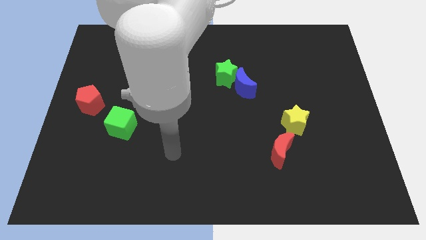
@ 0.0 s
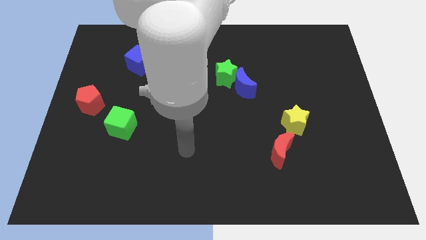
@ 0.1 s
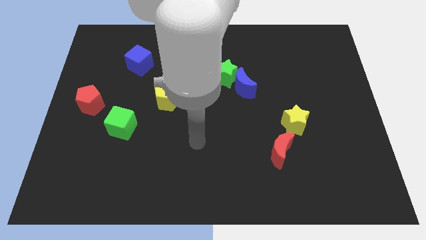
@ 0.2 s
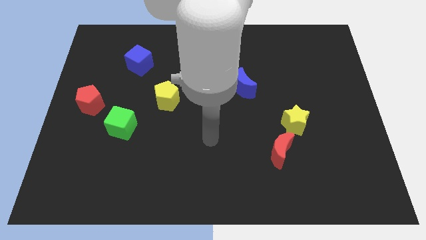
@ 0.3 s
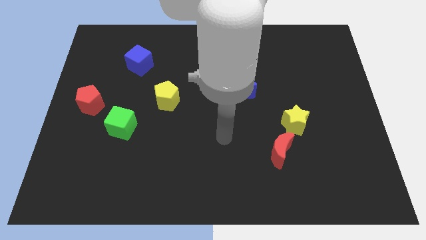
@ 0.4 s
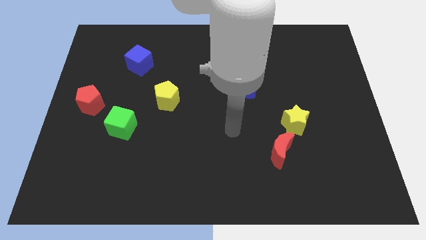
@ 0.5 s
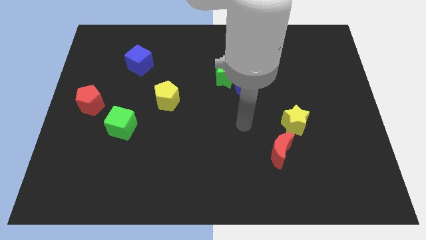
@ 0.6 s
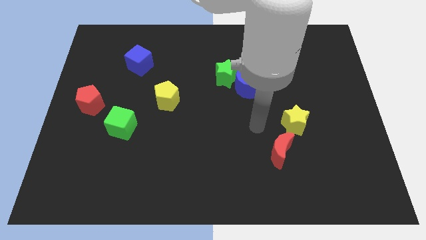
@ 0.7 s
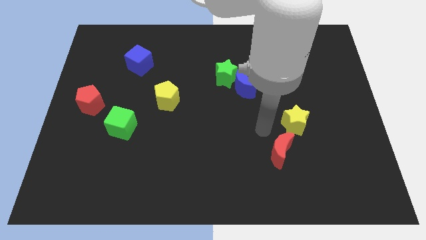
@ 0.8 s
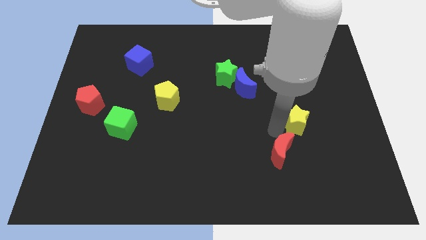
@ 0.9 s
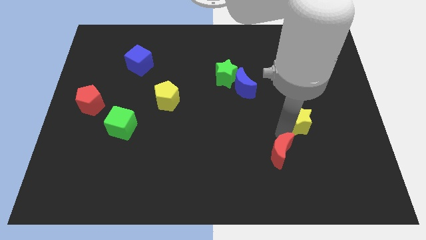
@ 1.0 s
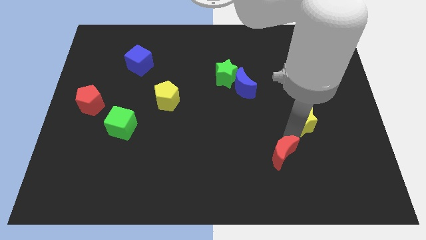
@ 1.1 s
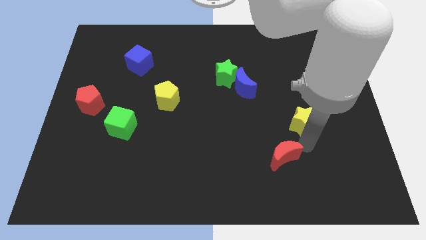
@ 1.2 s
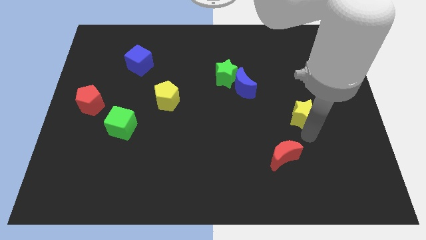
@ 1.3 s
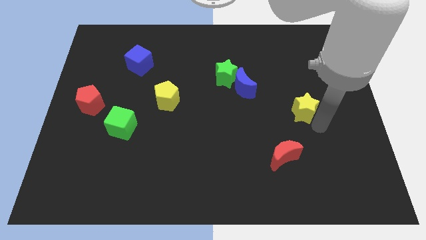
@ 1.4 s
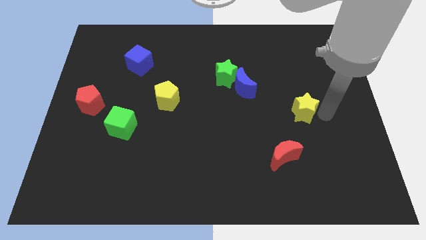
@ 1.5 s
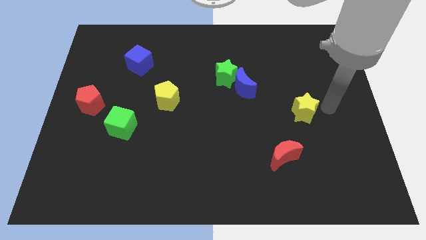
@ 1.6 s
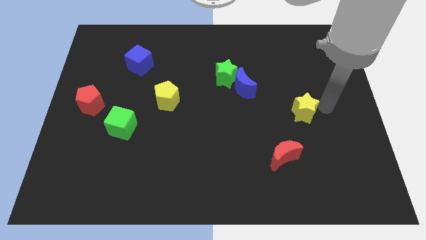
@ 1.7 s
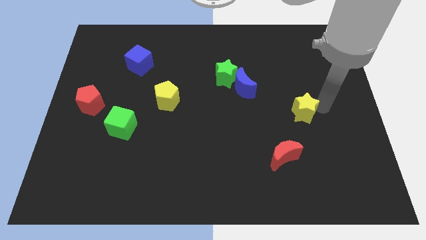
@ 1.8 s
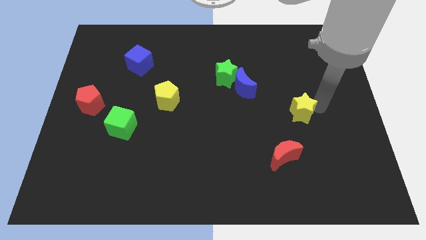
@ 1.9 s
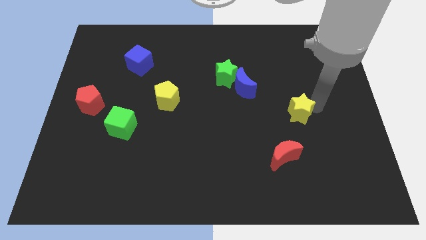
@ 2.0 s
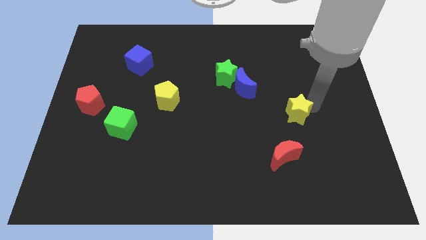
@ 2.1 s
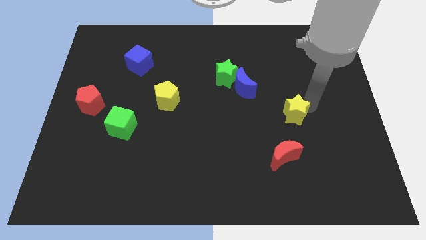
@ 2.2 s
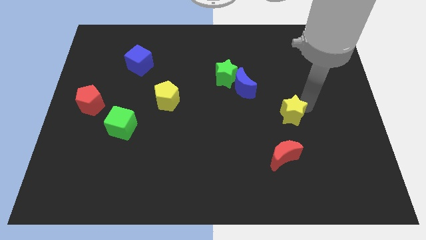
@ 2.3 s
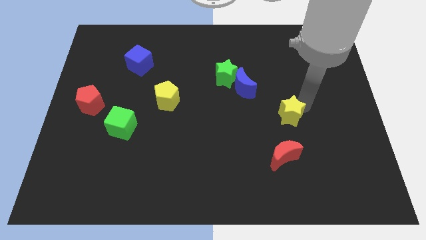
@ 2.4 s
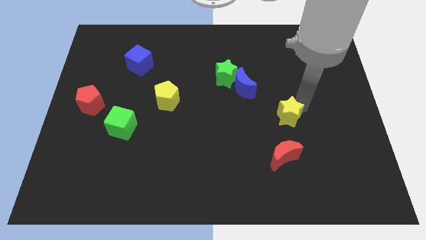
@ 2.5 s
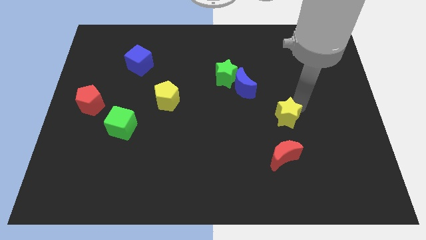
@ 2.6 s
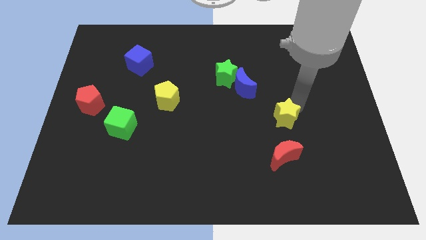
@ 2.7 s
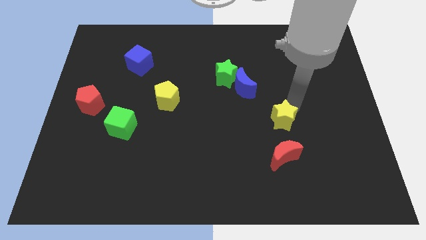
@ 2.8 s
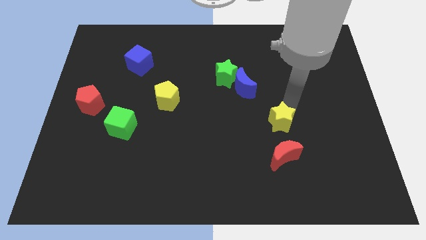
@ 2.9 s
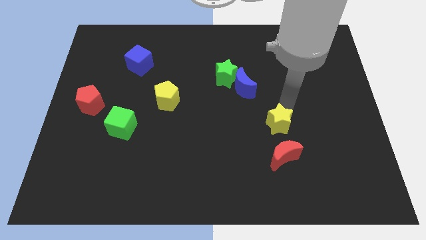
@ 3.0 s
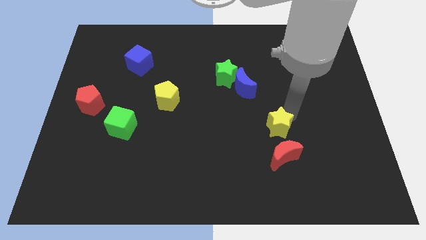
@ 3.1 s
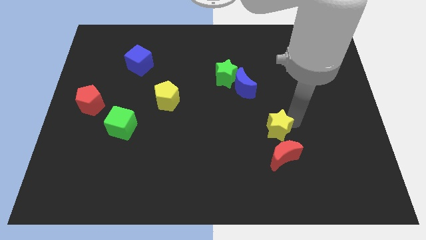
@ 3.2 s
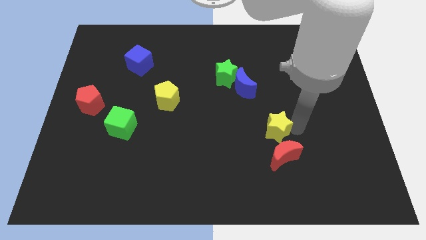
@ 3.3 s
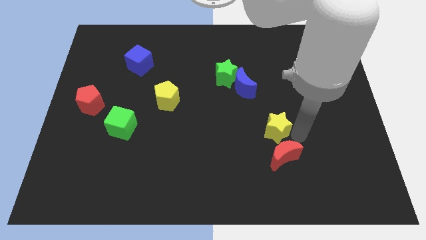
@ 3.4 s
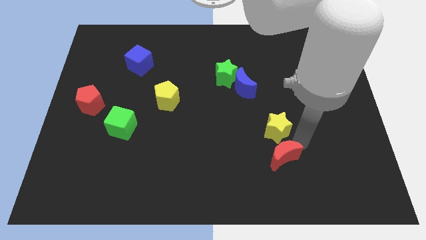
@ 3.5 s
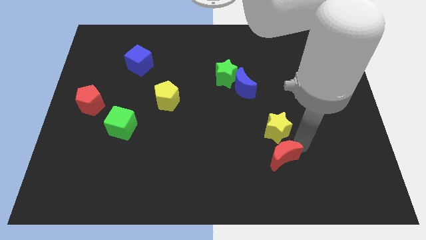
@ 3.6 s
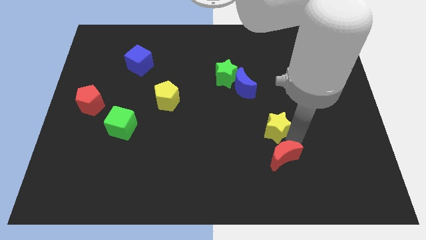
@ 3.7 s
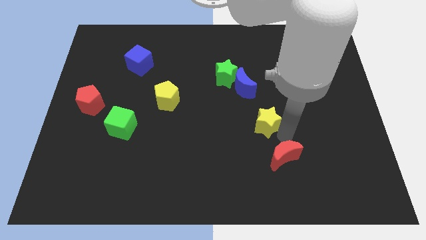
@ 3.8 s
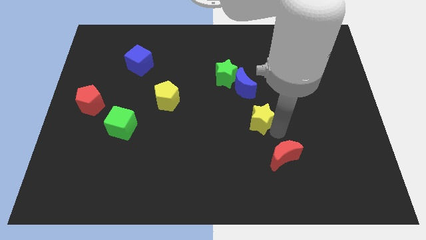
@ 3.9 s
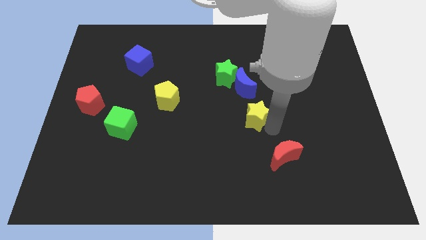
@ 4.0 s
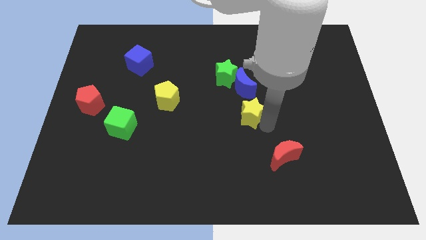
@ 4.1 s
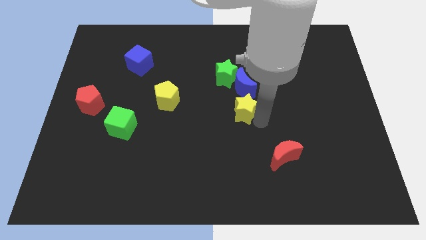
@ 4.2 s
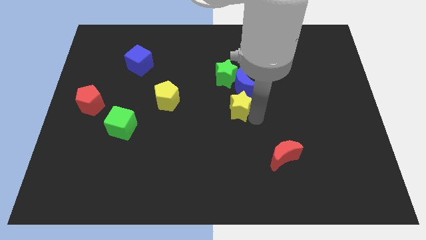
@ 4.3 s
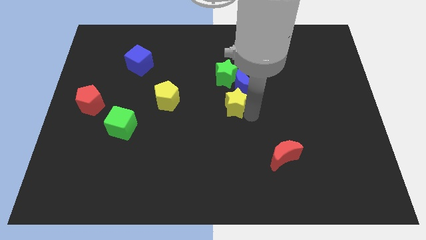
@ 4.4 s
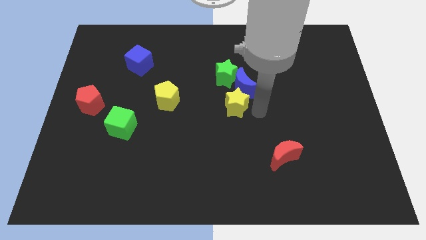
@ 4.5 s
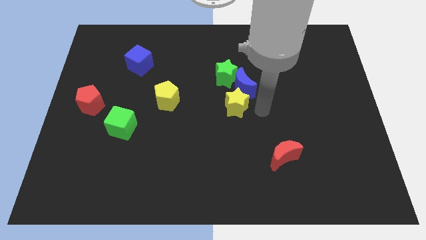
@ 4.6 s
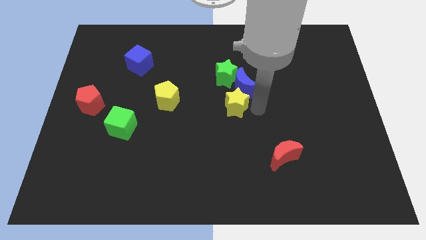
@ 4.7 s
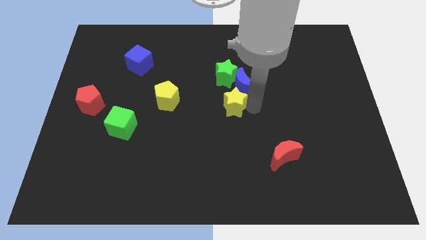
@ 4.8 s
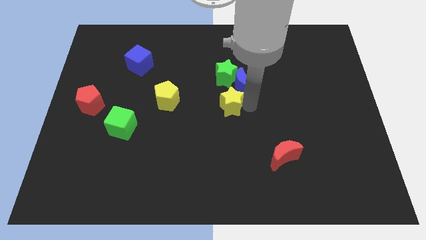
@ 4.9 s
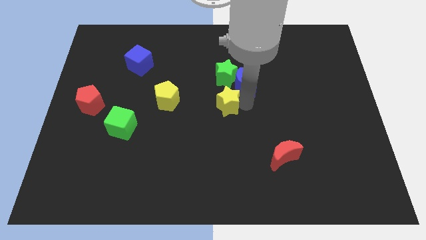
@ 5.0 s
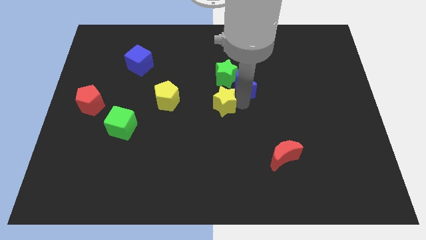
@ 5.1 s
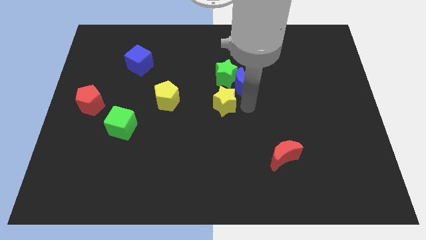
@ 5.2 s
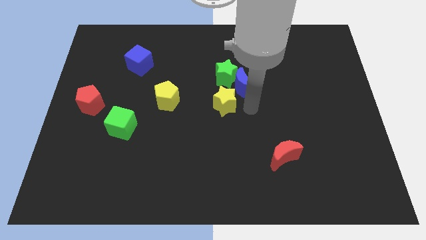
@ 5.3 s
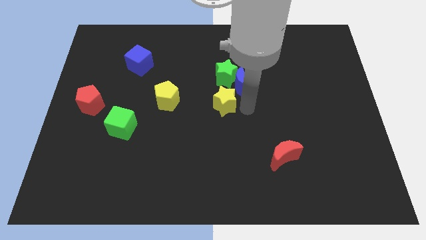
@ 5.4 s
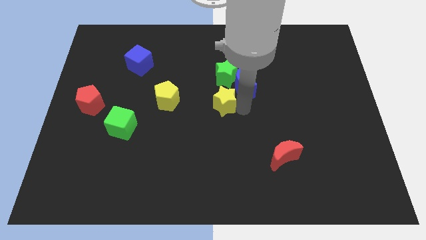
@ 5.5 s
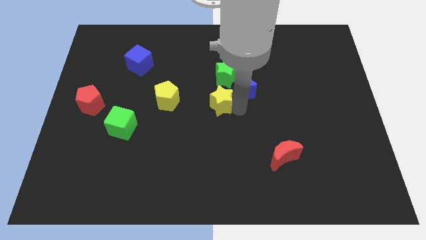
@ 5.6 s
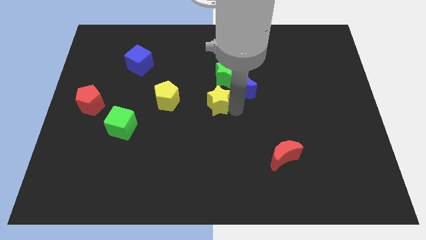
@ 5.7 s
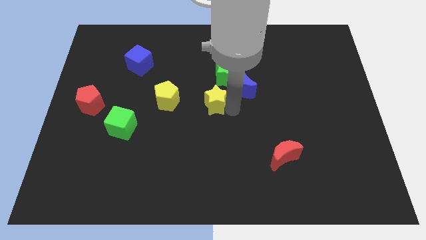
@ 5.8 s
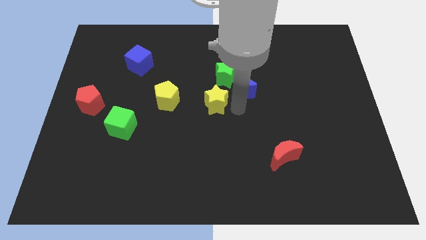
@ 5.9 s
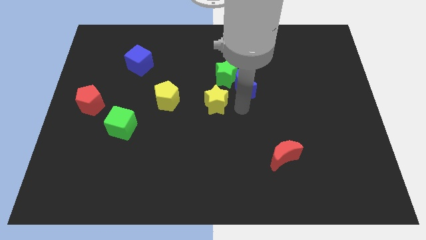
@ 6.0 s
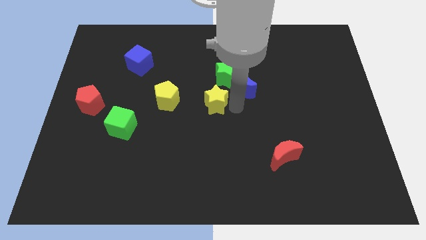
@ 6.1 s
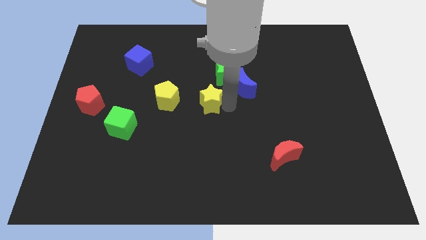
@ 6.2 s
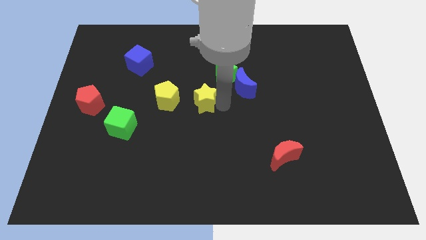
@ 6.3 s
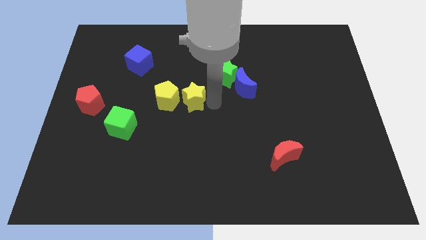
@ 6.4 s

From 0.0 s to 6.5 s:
push the yellow star next to the yellow pentagon

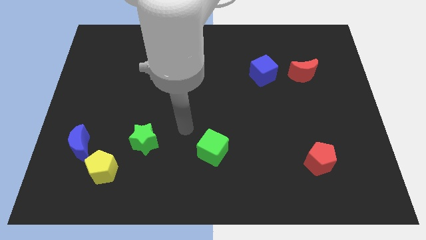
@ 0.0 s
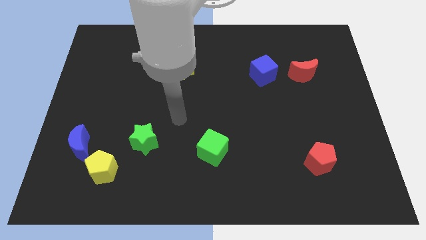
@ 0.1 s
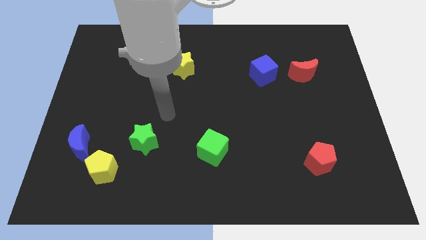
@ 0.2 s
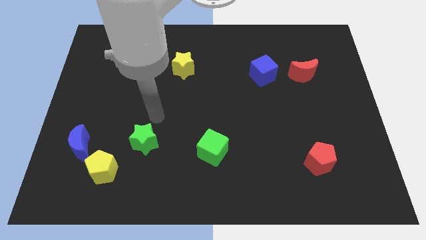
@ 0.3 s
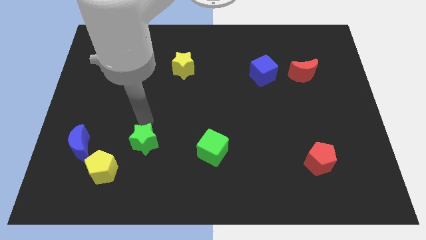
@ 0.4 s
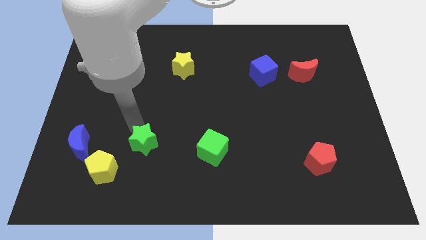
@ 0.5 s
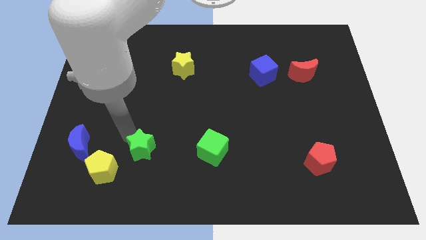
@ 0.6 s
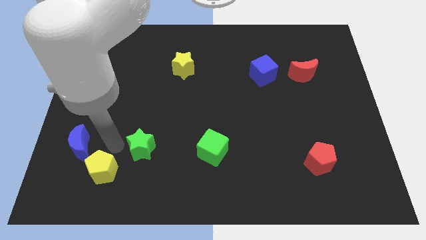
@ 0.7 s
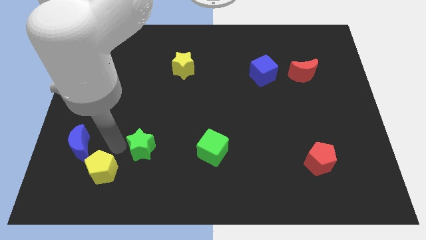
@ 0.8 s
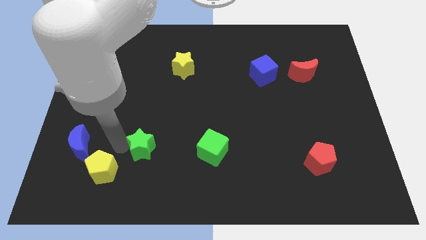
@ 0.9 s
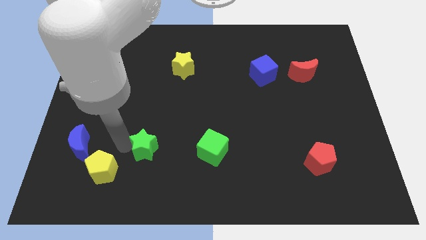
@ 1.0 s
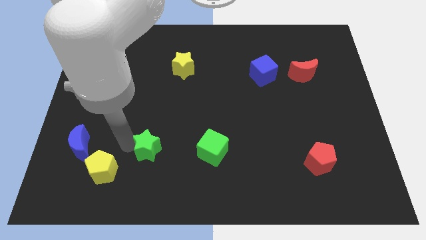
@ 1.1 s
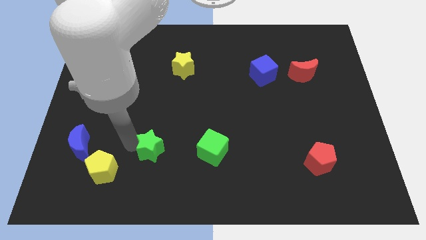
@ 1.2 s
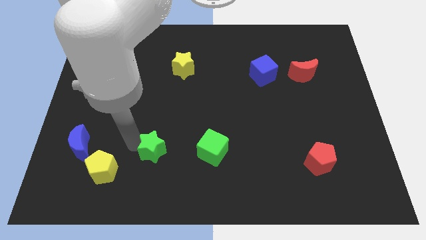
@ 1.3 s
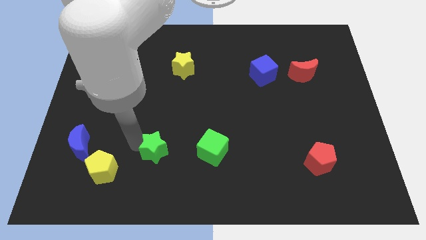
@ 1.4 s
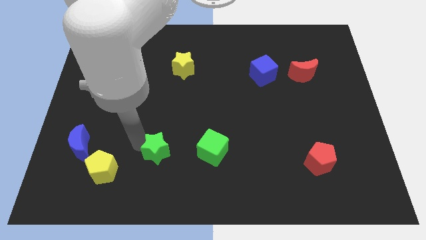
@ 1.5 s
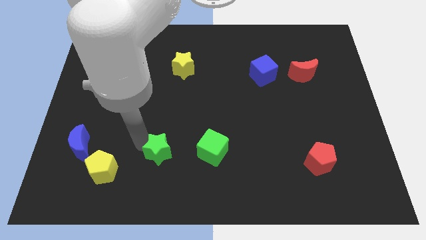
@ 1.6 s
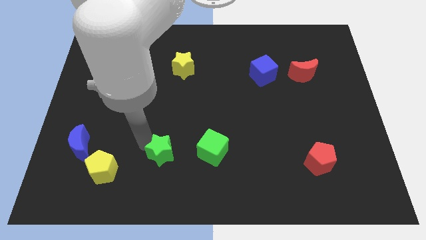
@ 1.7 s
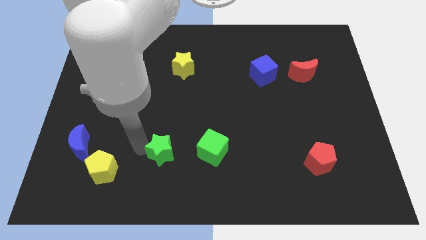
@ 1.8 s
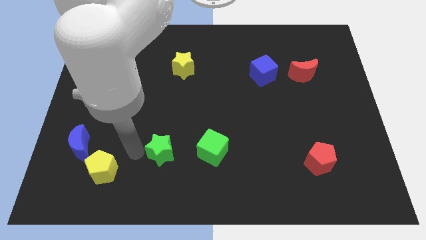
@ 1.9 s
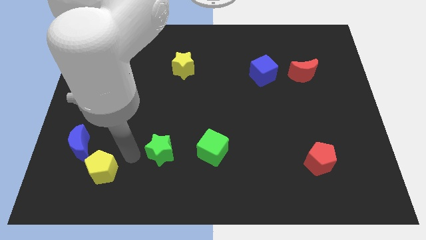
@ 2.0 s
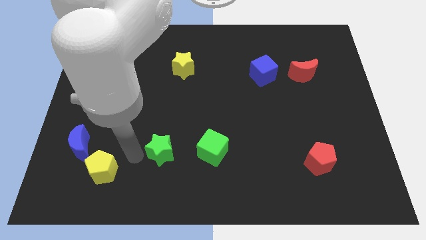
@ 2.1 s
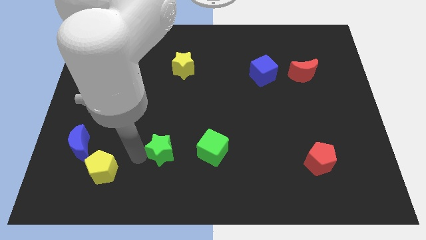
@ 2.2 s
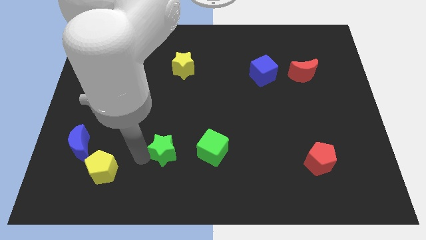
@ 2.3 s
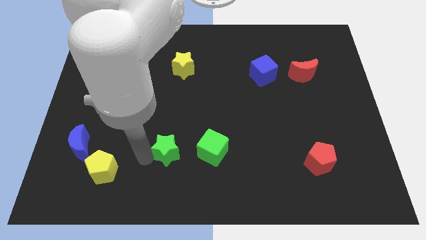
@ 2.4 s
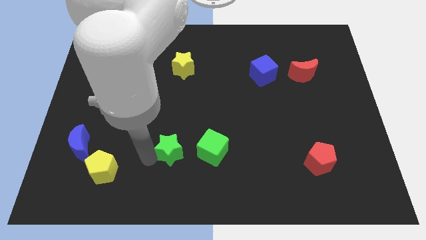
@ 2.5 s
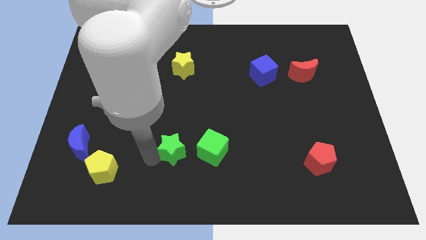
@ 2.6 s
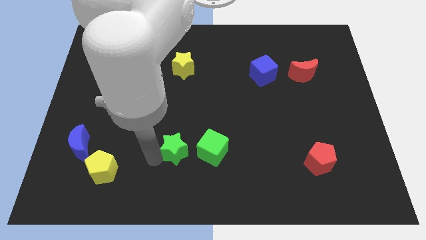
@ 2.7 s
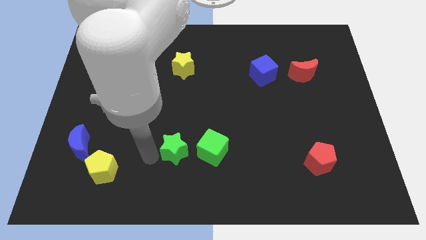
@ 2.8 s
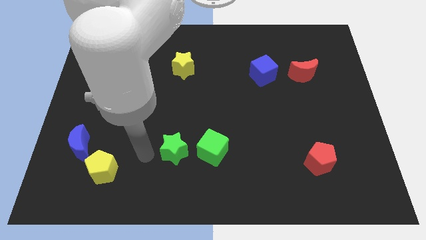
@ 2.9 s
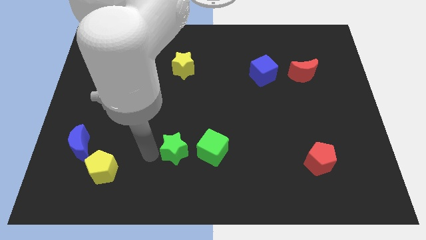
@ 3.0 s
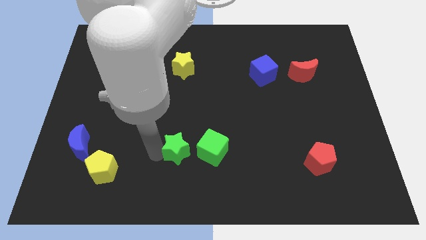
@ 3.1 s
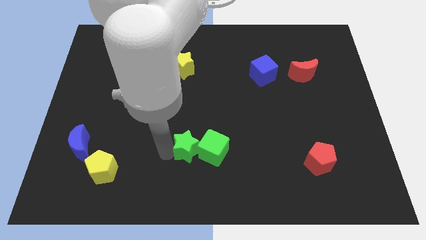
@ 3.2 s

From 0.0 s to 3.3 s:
move the green star to the green cube
